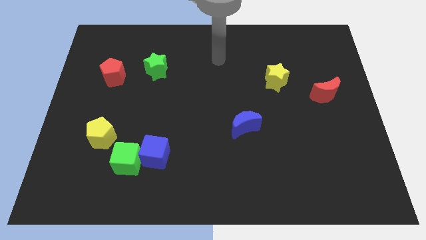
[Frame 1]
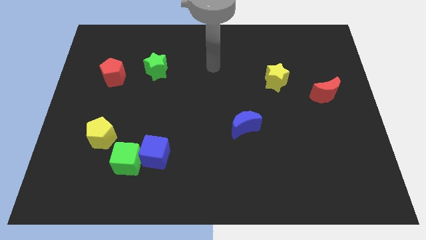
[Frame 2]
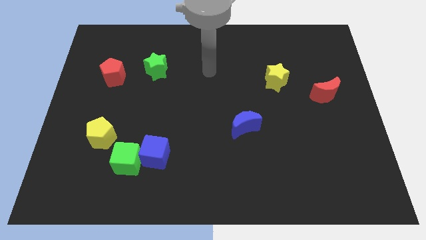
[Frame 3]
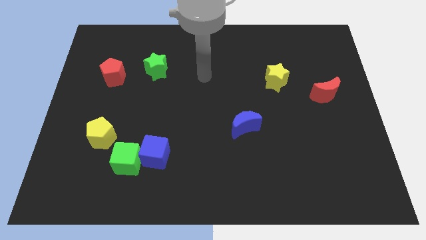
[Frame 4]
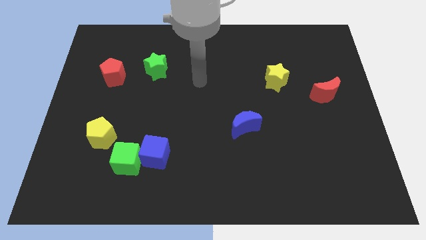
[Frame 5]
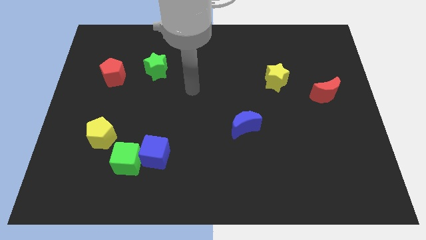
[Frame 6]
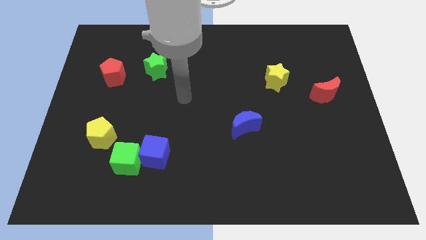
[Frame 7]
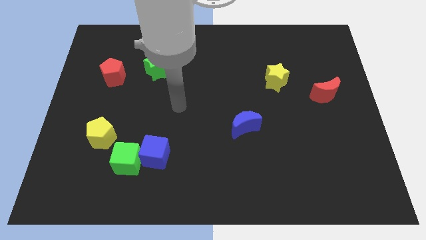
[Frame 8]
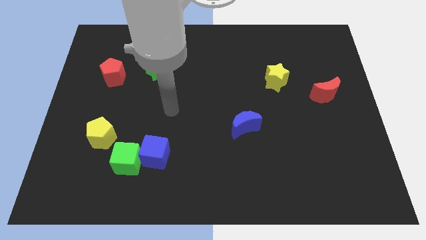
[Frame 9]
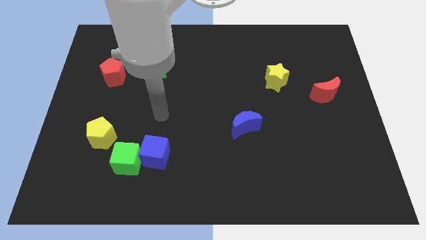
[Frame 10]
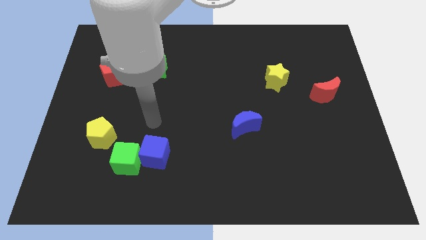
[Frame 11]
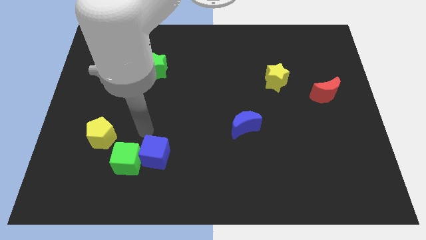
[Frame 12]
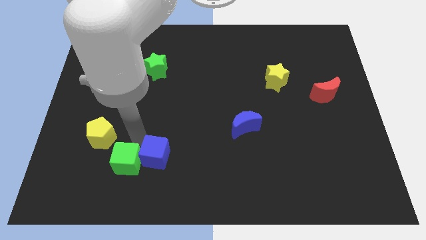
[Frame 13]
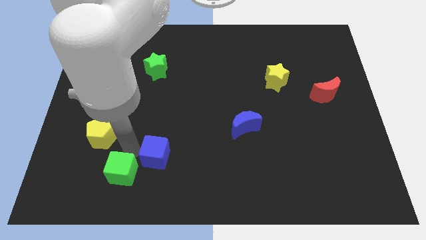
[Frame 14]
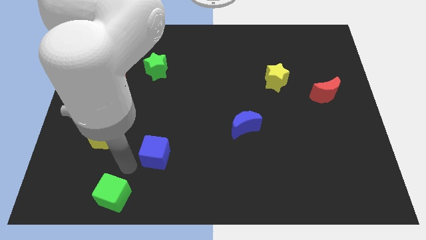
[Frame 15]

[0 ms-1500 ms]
pull the blue cube apart from the green cube

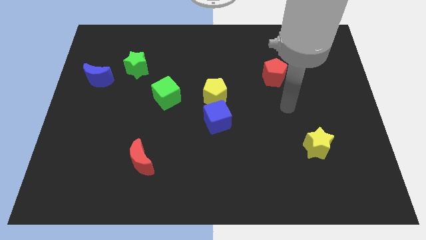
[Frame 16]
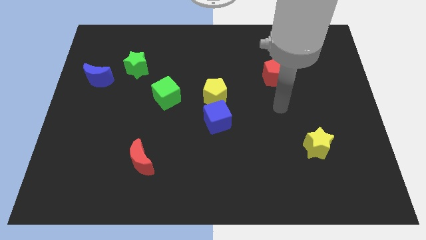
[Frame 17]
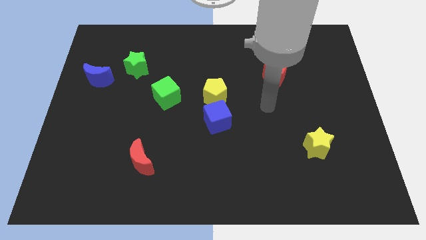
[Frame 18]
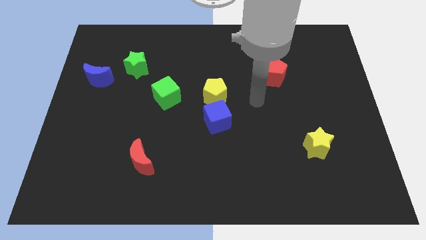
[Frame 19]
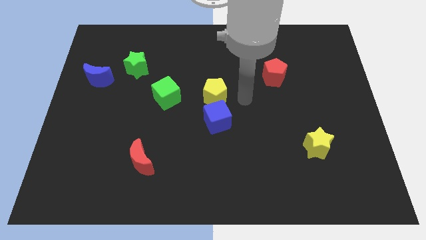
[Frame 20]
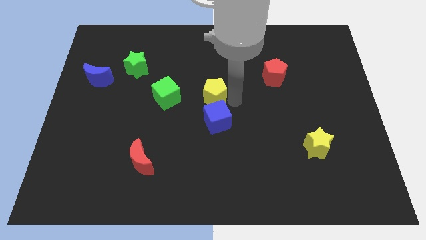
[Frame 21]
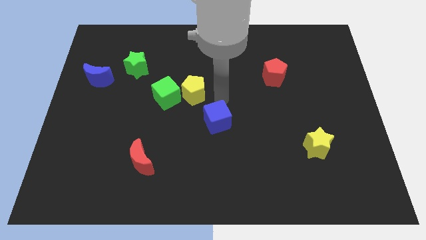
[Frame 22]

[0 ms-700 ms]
move the blue cube away from the yellow pentagon

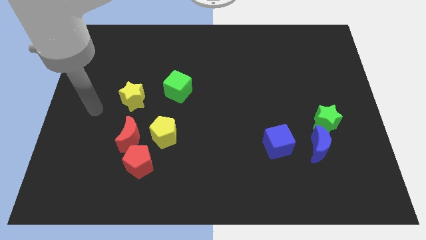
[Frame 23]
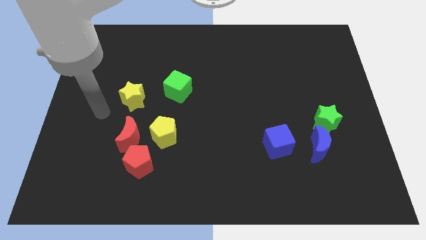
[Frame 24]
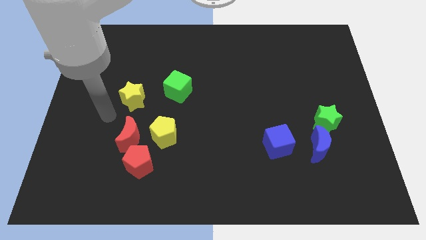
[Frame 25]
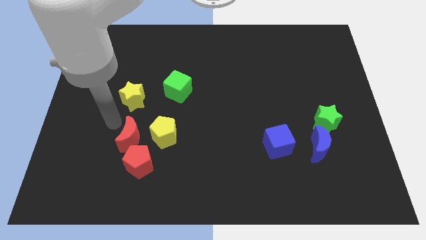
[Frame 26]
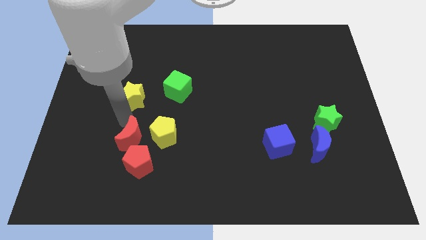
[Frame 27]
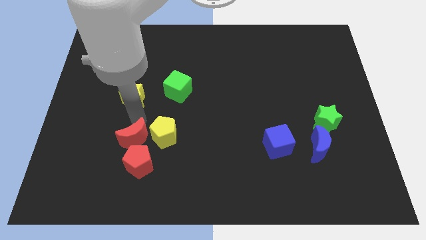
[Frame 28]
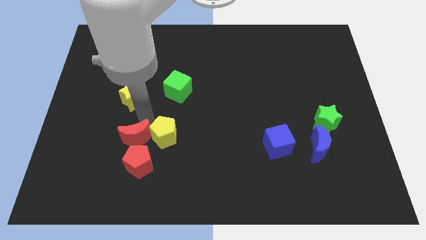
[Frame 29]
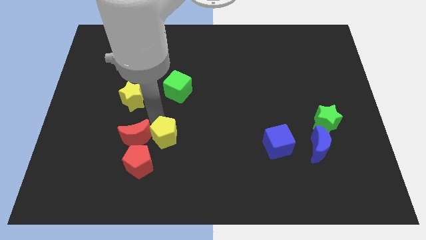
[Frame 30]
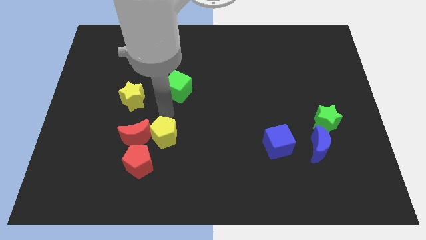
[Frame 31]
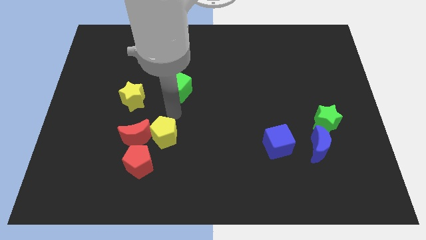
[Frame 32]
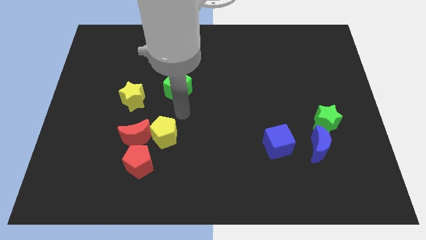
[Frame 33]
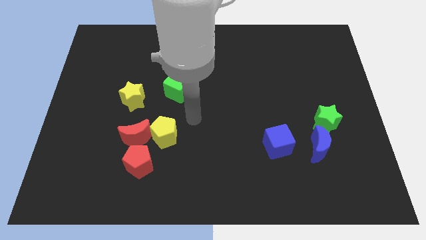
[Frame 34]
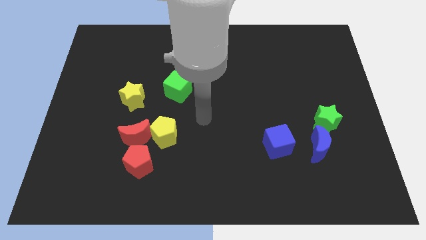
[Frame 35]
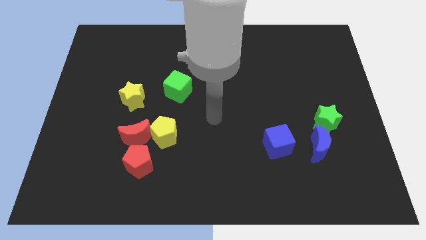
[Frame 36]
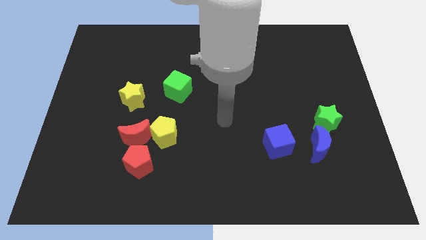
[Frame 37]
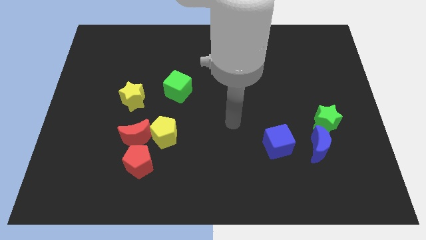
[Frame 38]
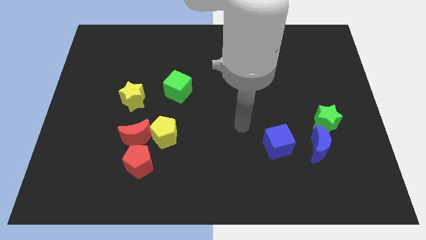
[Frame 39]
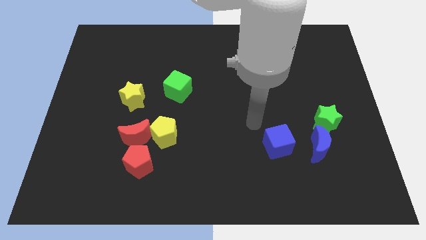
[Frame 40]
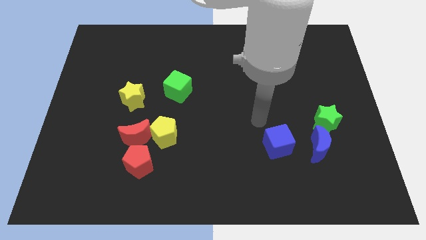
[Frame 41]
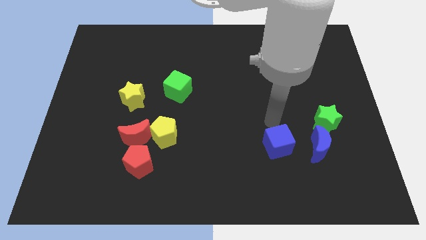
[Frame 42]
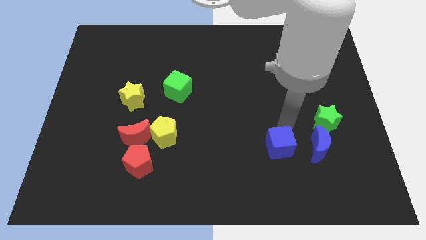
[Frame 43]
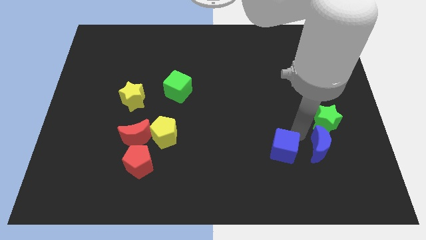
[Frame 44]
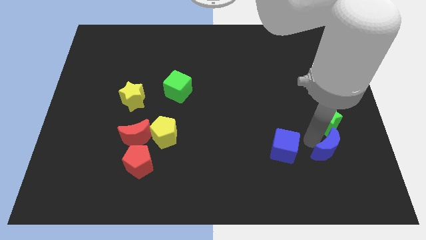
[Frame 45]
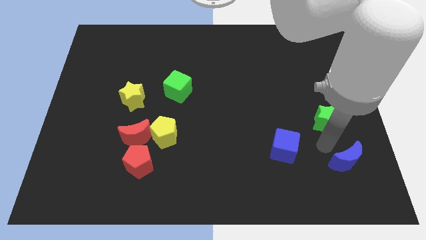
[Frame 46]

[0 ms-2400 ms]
move the green star away from the blue moon

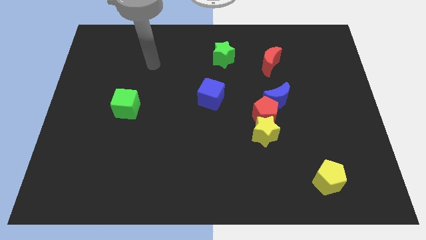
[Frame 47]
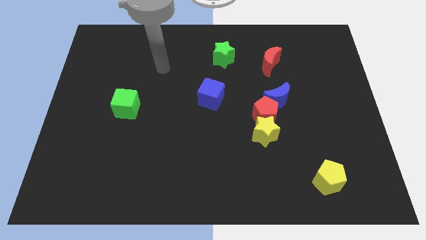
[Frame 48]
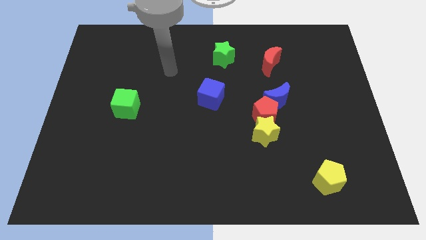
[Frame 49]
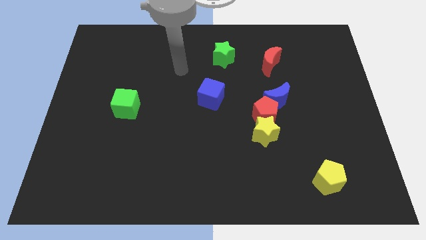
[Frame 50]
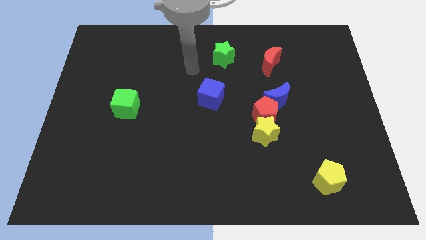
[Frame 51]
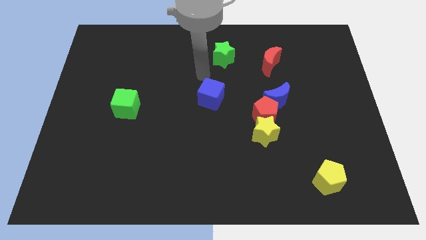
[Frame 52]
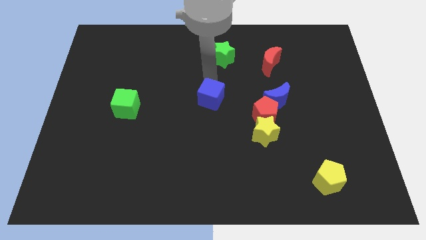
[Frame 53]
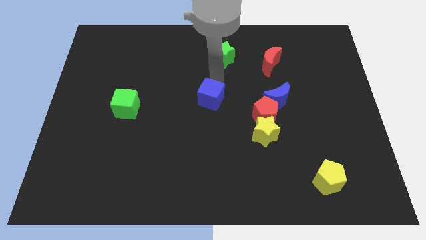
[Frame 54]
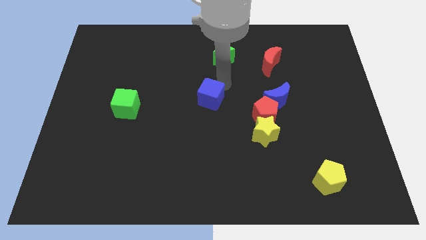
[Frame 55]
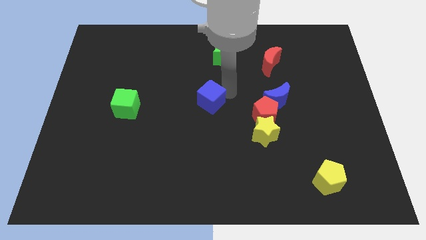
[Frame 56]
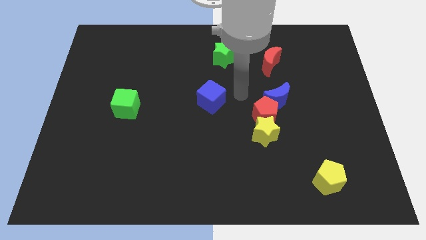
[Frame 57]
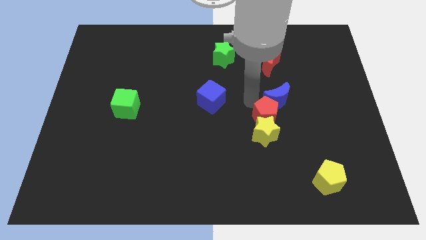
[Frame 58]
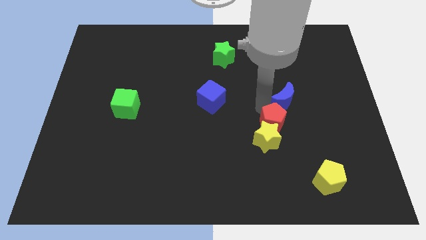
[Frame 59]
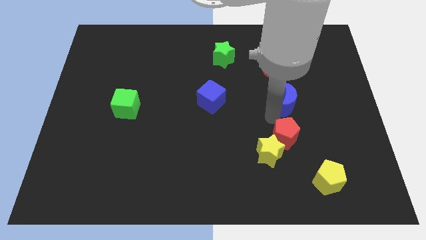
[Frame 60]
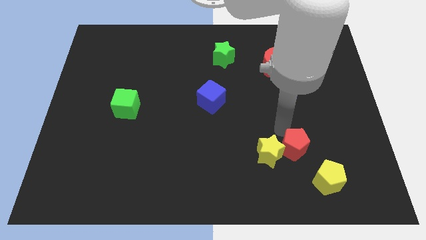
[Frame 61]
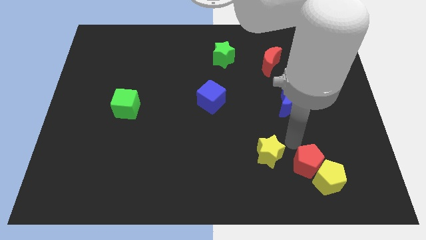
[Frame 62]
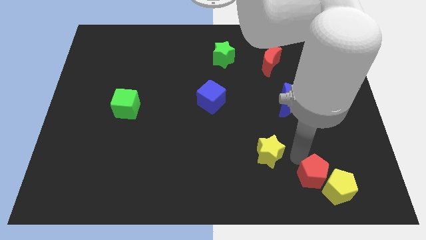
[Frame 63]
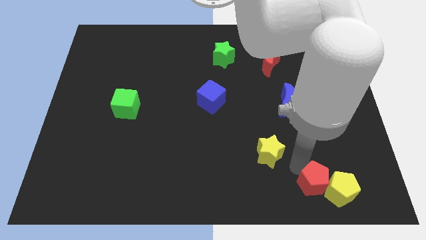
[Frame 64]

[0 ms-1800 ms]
separate the yellow star from the red pentagon

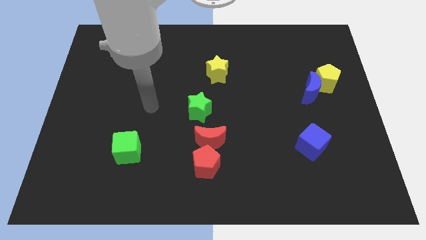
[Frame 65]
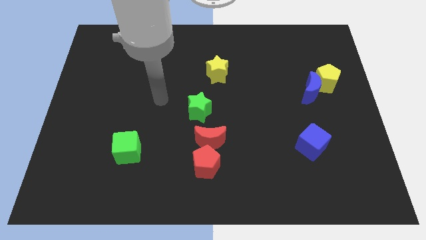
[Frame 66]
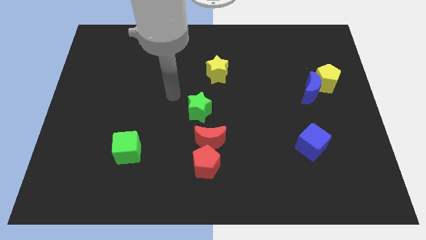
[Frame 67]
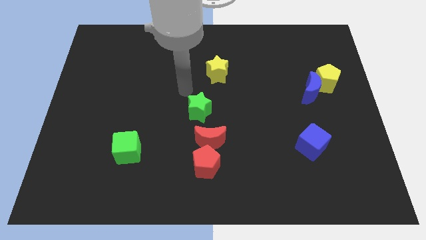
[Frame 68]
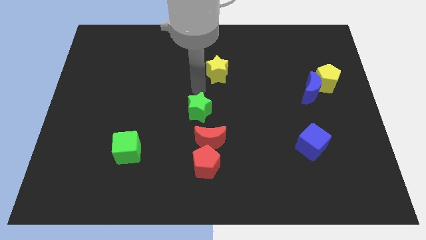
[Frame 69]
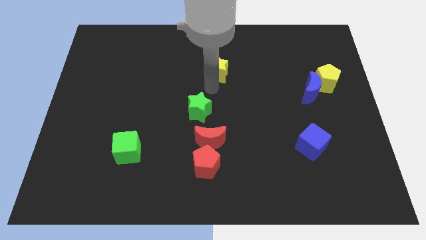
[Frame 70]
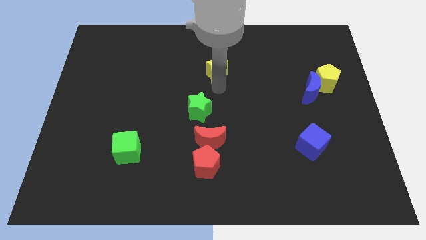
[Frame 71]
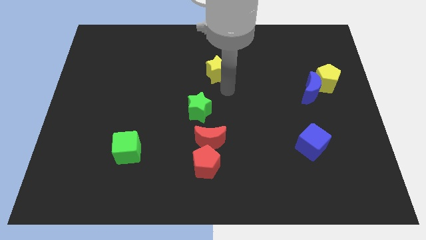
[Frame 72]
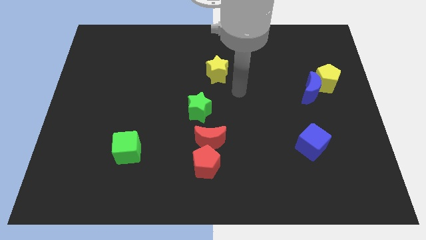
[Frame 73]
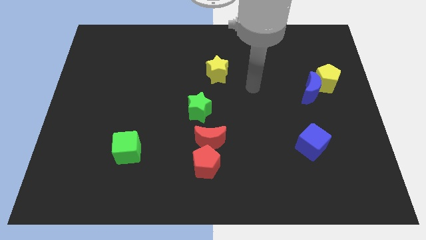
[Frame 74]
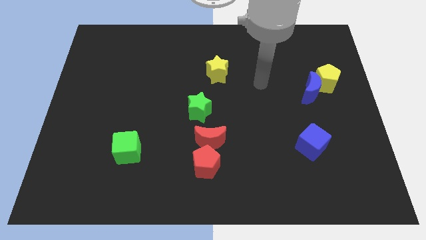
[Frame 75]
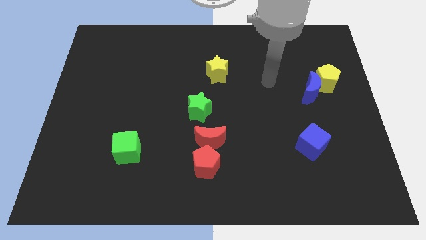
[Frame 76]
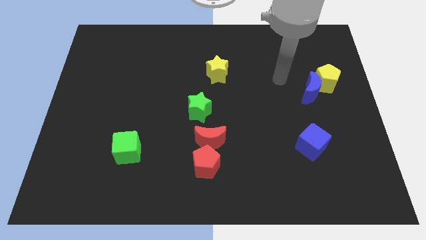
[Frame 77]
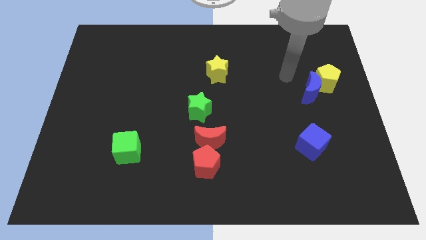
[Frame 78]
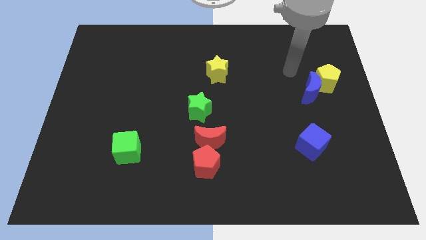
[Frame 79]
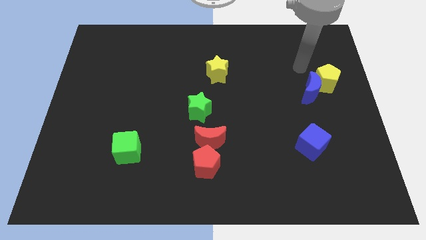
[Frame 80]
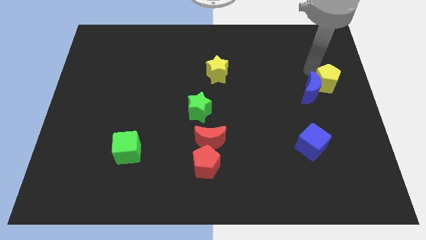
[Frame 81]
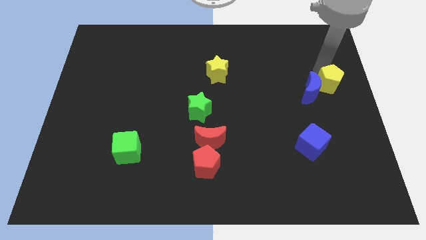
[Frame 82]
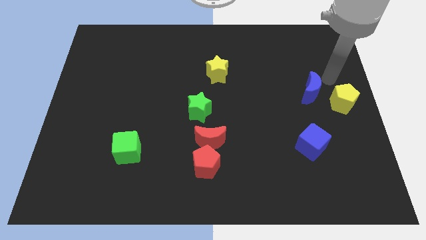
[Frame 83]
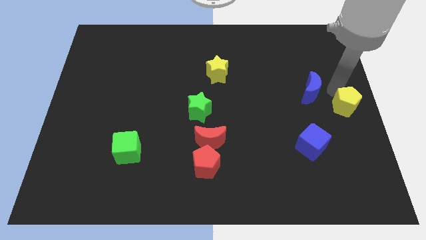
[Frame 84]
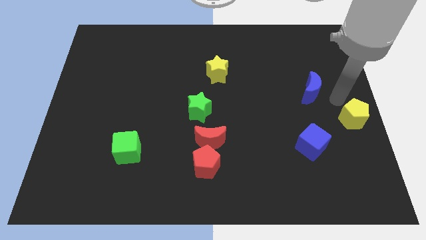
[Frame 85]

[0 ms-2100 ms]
pull the blue moon apart from the yellow pentagon

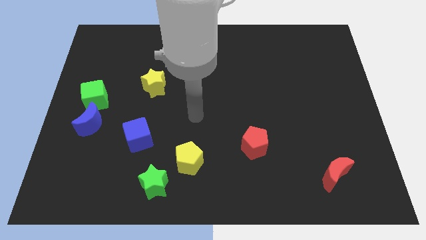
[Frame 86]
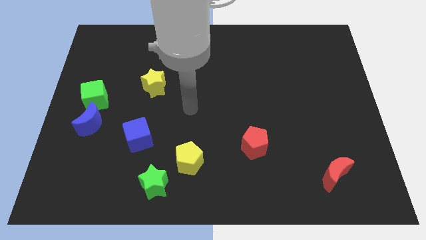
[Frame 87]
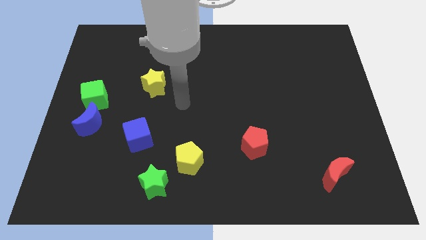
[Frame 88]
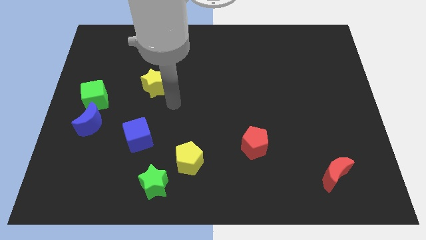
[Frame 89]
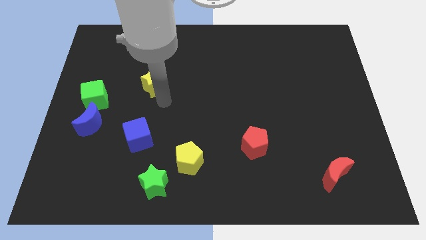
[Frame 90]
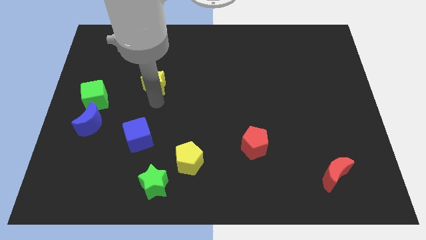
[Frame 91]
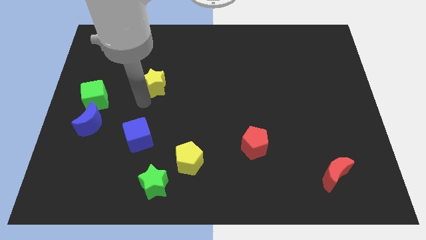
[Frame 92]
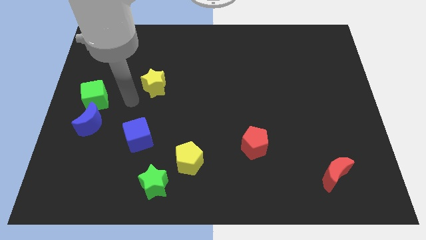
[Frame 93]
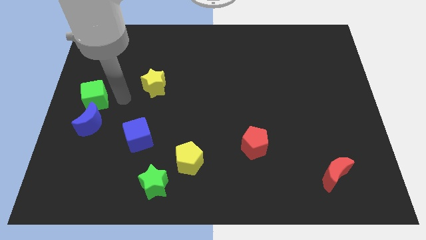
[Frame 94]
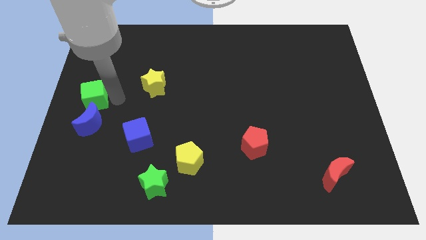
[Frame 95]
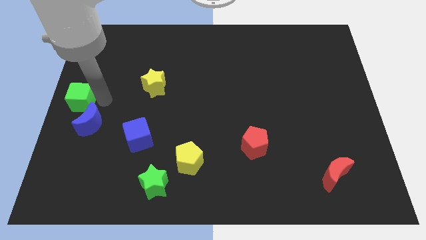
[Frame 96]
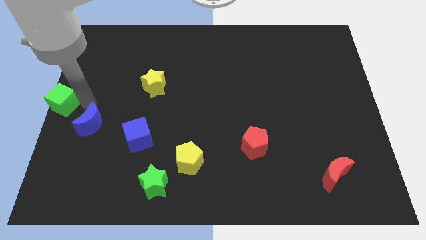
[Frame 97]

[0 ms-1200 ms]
move the blue moon away from the green cube
